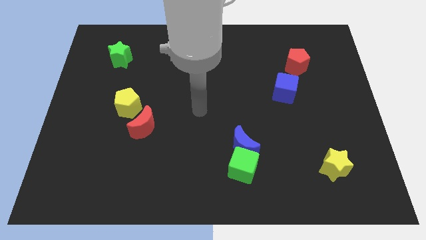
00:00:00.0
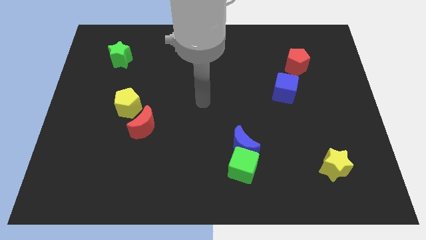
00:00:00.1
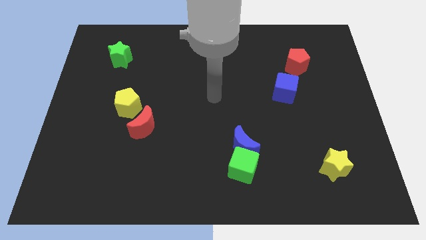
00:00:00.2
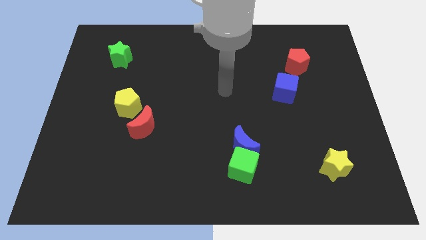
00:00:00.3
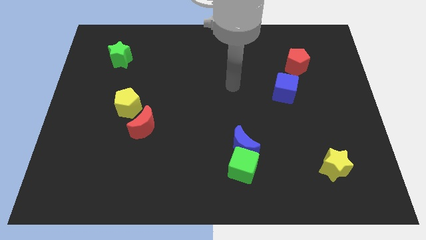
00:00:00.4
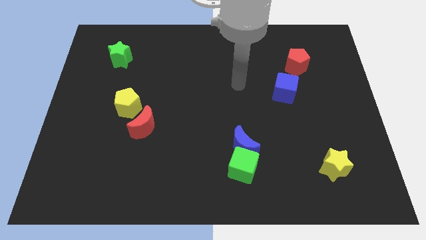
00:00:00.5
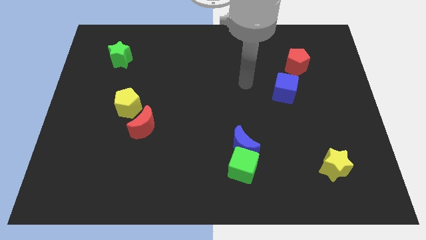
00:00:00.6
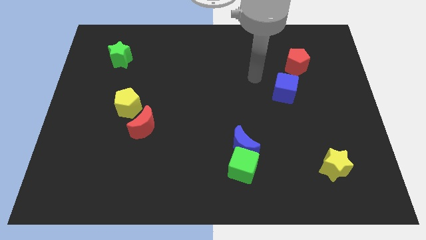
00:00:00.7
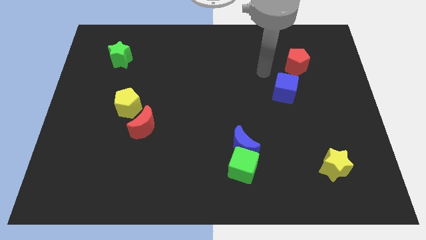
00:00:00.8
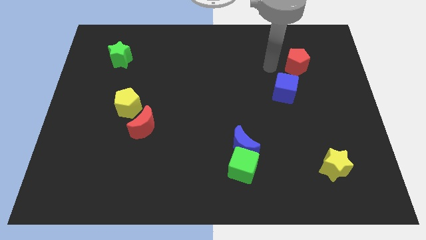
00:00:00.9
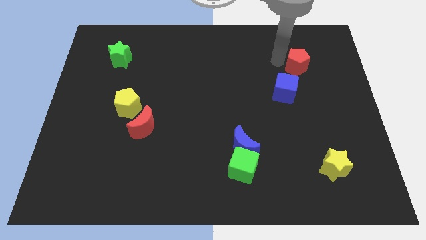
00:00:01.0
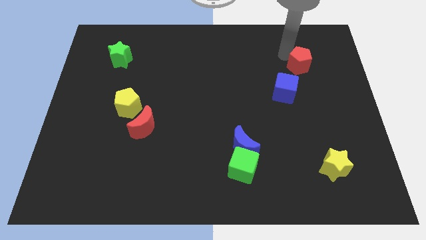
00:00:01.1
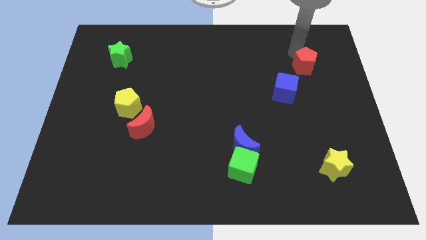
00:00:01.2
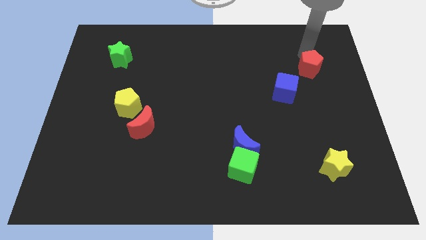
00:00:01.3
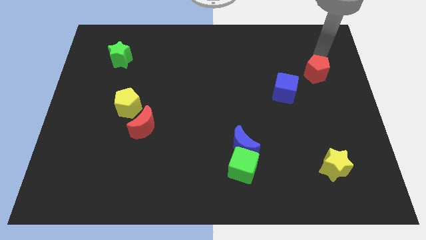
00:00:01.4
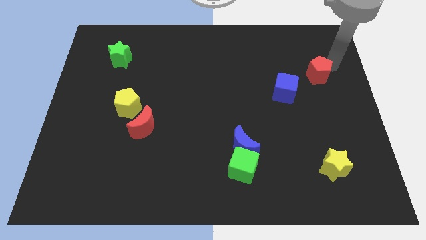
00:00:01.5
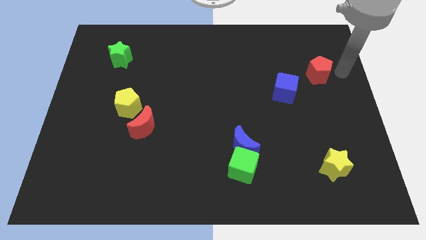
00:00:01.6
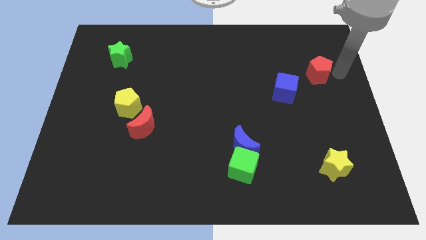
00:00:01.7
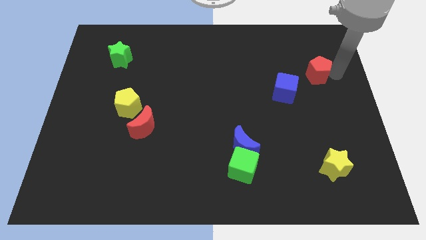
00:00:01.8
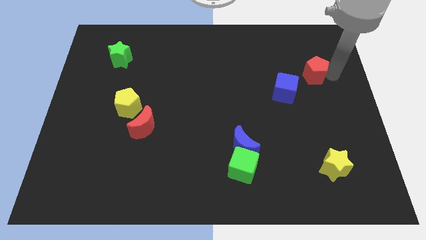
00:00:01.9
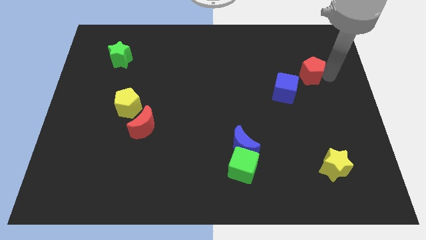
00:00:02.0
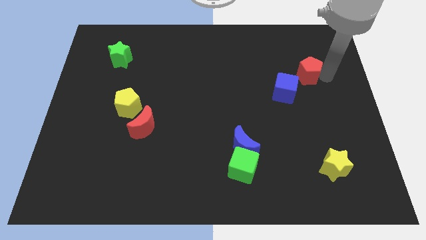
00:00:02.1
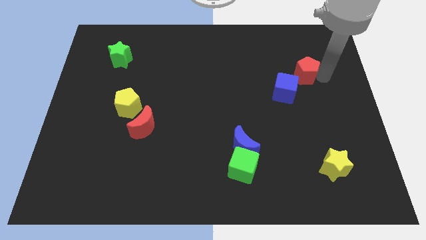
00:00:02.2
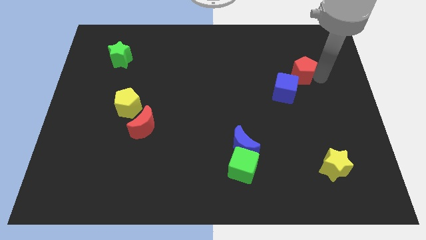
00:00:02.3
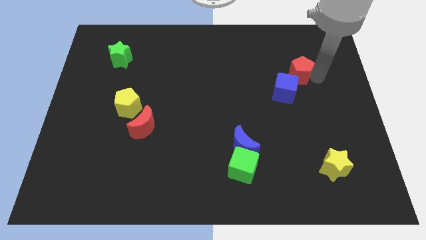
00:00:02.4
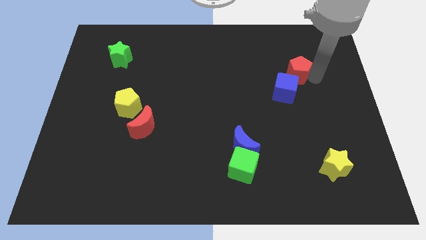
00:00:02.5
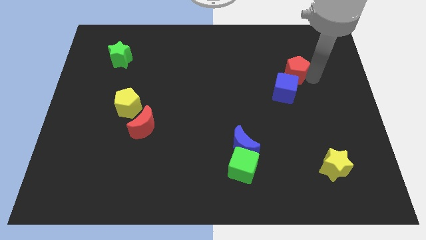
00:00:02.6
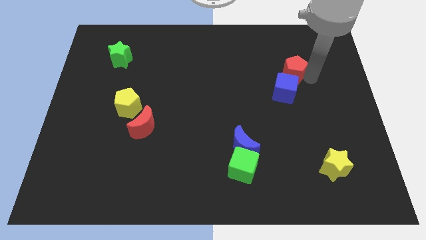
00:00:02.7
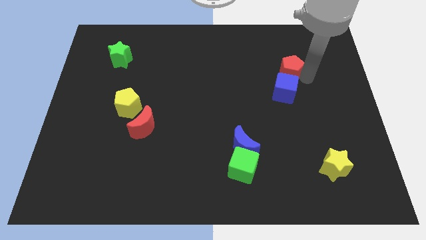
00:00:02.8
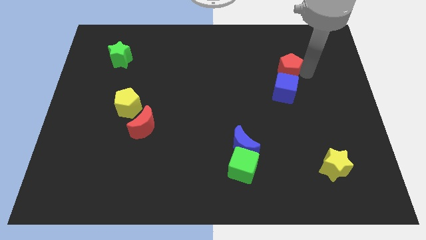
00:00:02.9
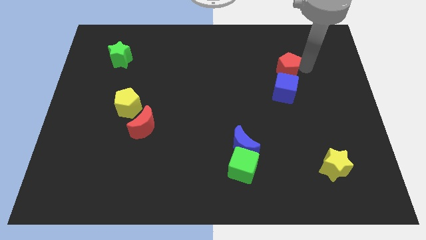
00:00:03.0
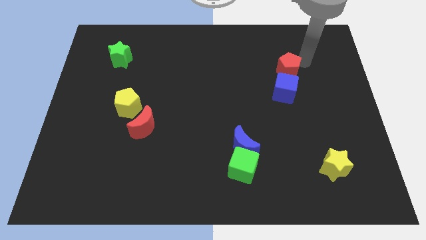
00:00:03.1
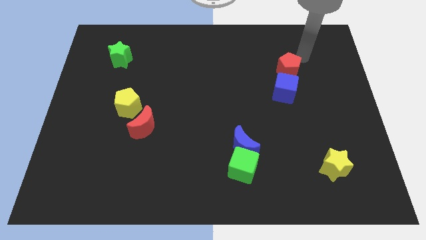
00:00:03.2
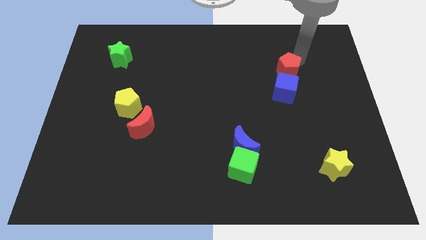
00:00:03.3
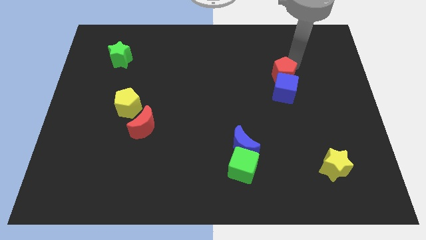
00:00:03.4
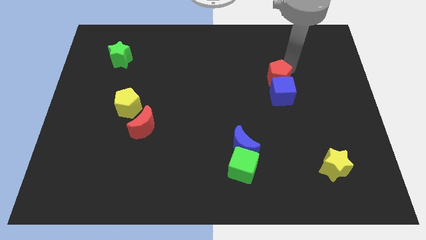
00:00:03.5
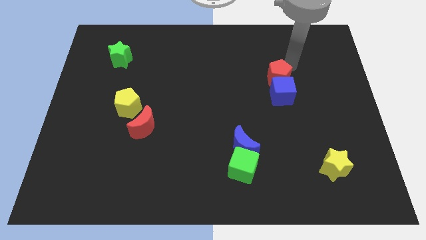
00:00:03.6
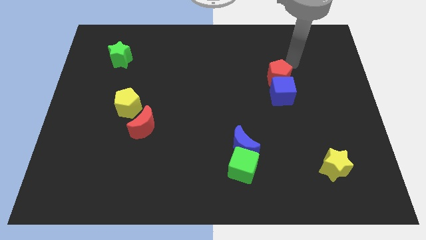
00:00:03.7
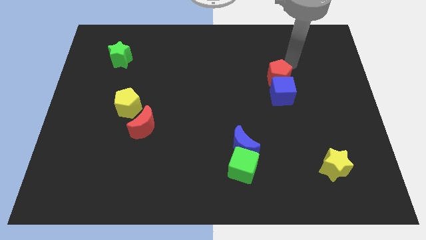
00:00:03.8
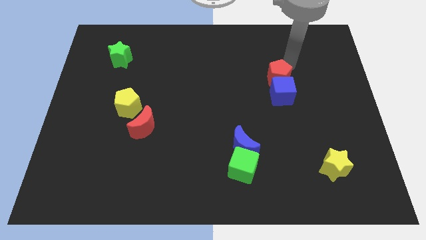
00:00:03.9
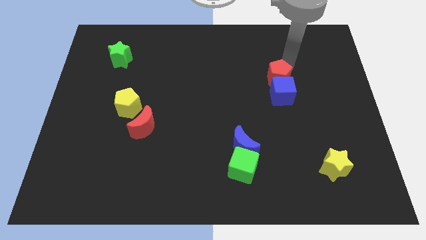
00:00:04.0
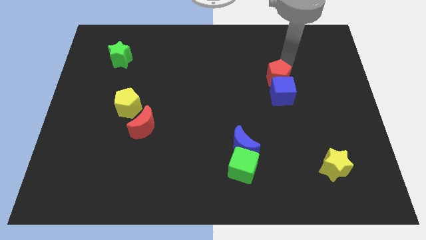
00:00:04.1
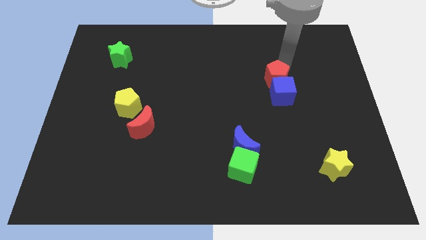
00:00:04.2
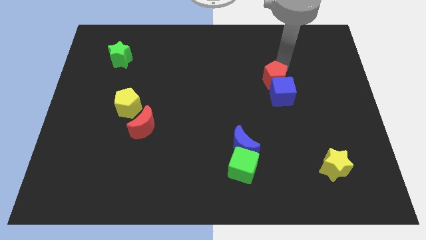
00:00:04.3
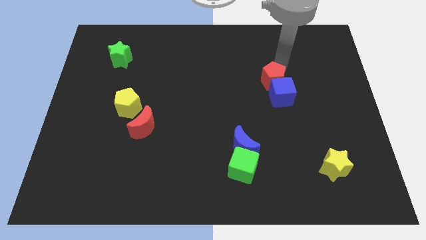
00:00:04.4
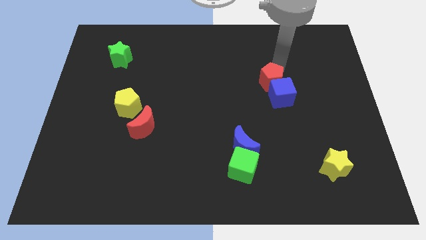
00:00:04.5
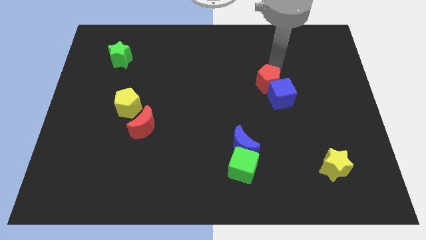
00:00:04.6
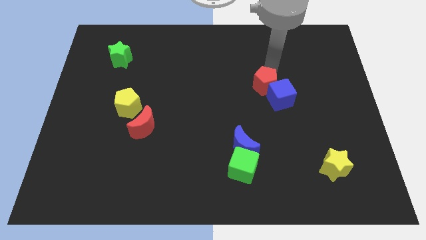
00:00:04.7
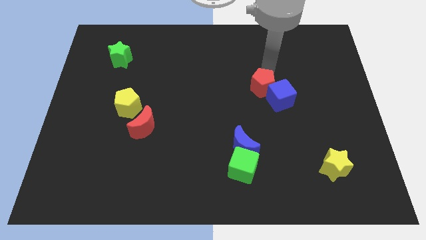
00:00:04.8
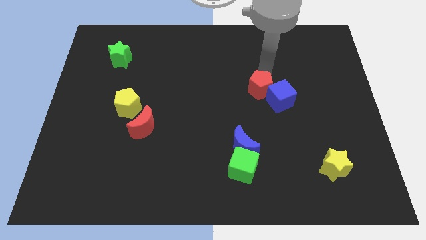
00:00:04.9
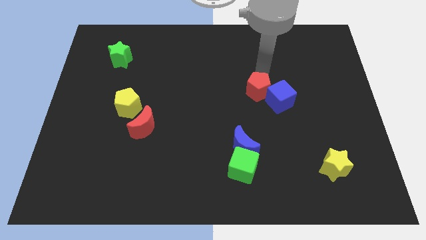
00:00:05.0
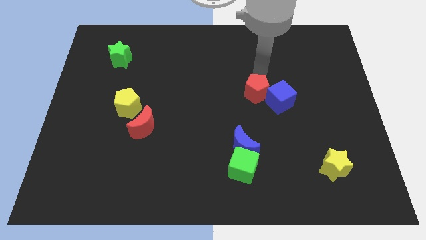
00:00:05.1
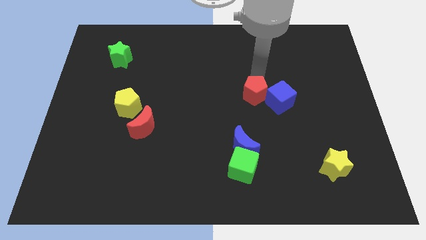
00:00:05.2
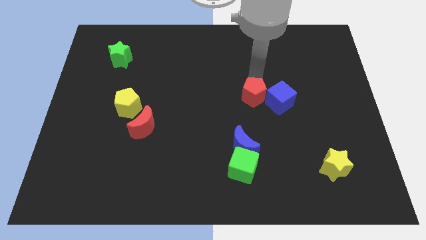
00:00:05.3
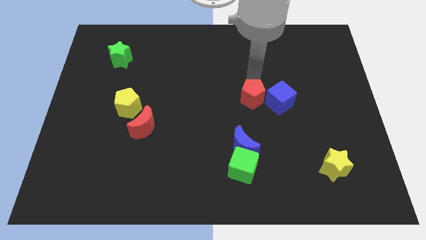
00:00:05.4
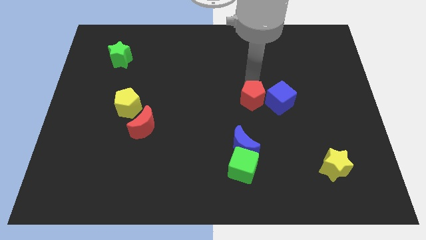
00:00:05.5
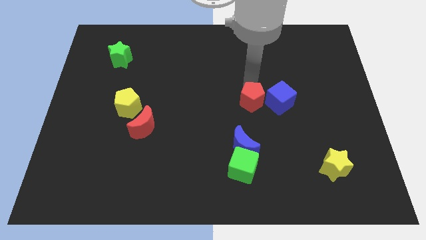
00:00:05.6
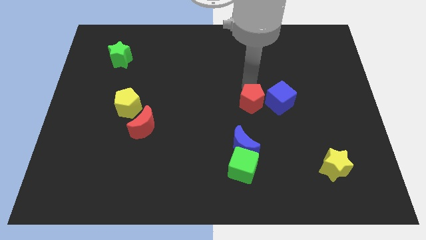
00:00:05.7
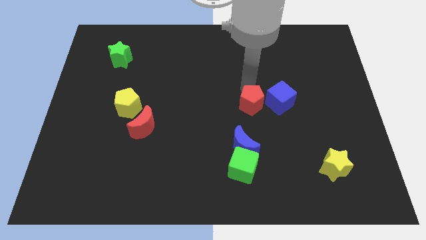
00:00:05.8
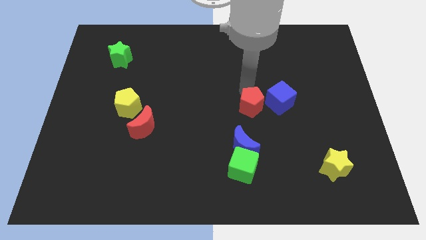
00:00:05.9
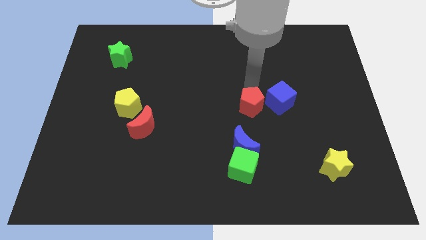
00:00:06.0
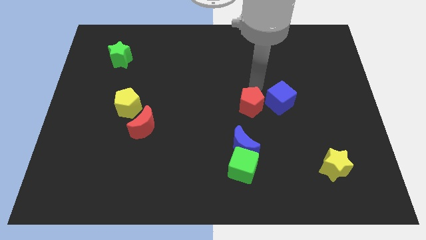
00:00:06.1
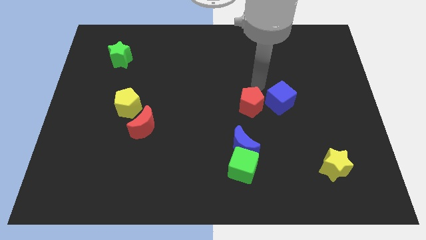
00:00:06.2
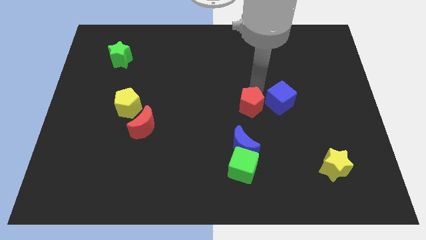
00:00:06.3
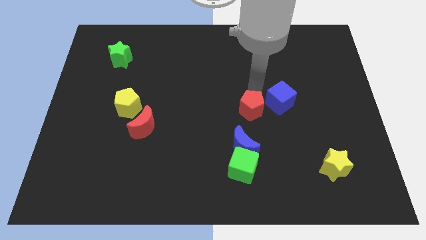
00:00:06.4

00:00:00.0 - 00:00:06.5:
slide the red pentagon to the top of the green cube

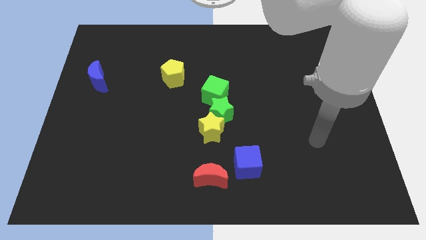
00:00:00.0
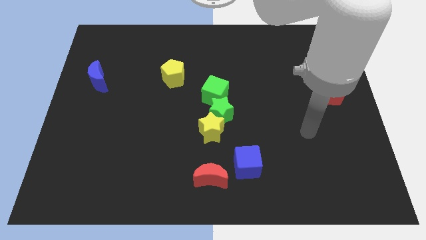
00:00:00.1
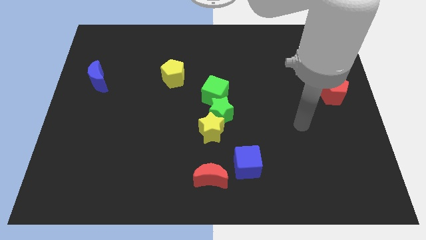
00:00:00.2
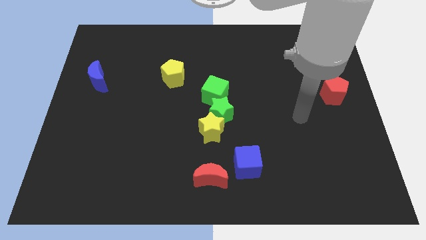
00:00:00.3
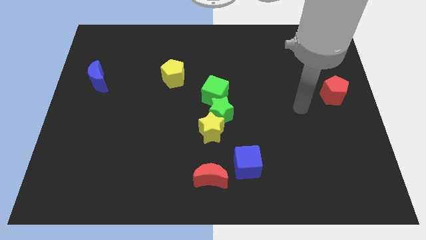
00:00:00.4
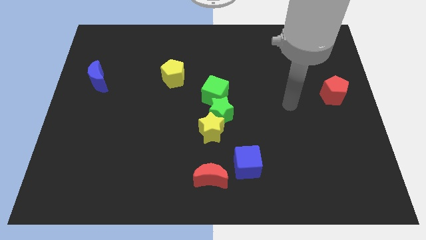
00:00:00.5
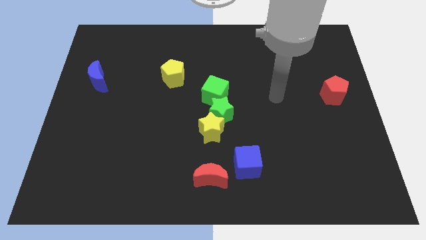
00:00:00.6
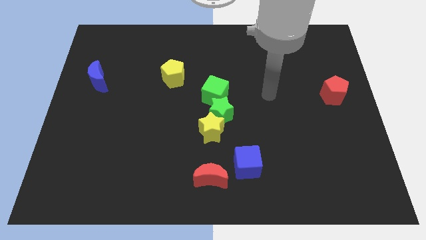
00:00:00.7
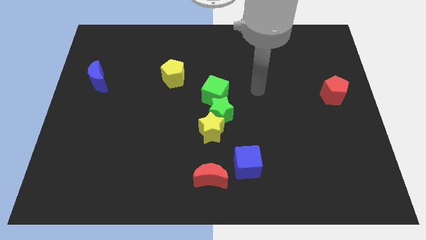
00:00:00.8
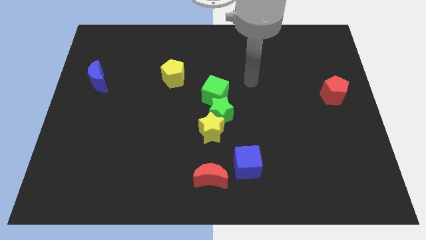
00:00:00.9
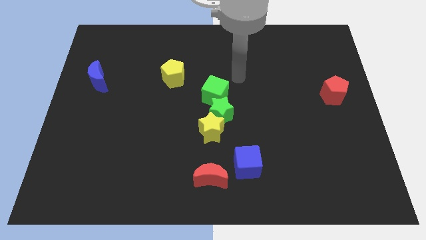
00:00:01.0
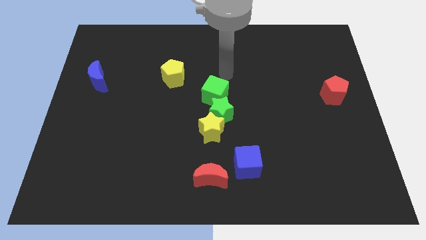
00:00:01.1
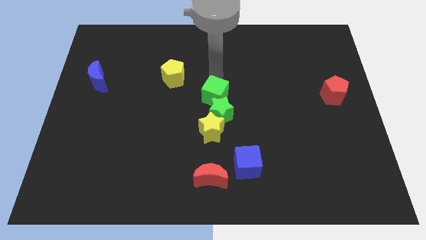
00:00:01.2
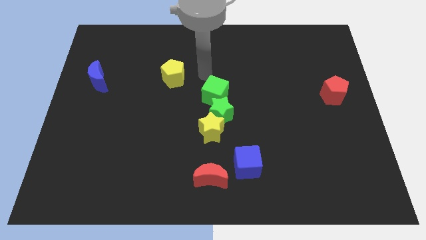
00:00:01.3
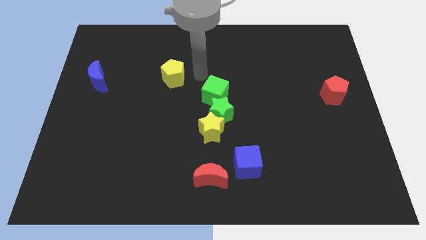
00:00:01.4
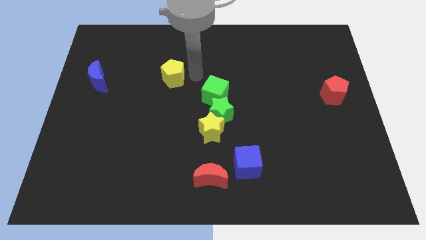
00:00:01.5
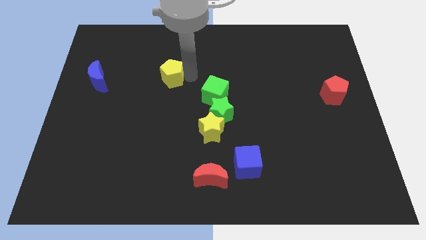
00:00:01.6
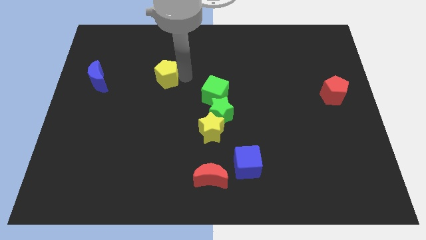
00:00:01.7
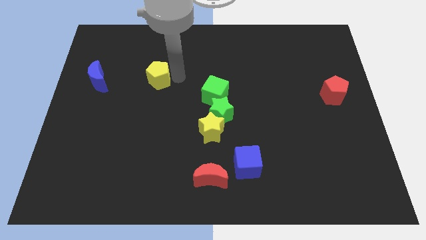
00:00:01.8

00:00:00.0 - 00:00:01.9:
push the yellow pentagon to the right of the blue moon
